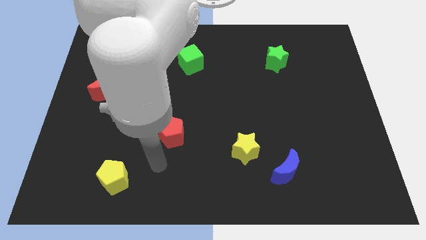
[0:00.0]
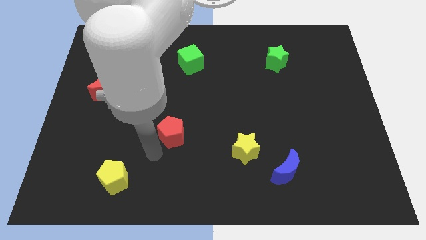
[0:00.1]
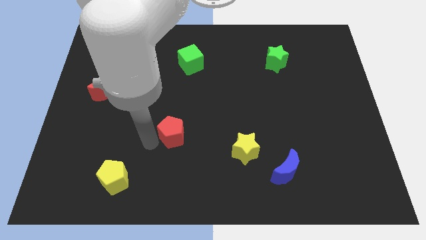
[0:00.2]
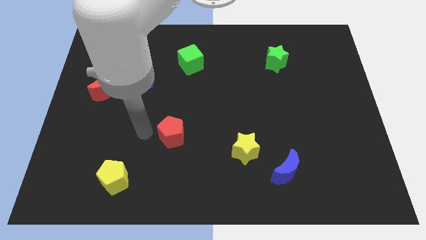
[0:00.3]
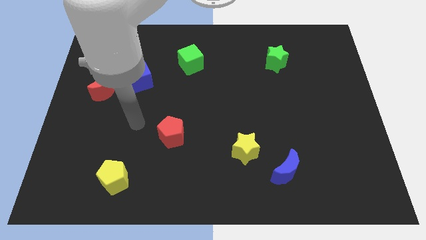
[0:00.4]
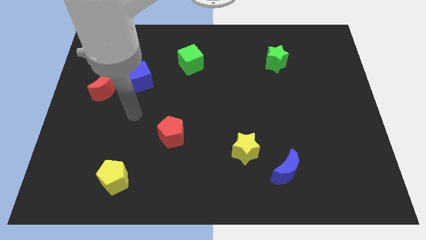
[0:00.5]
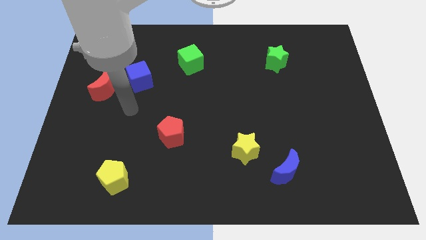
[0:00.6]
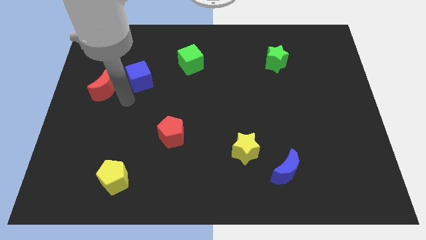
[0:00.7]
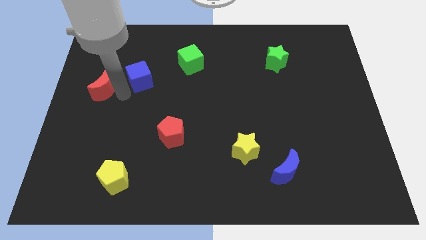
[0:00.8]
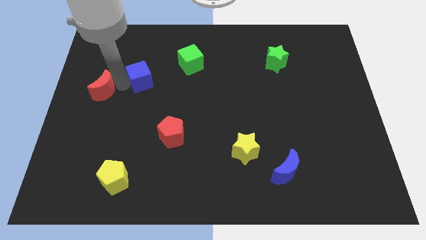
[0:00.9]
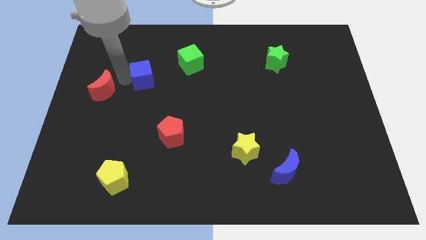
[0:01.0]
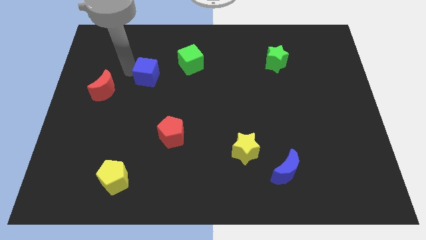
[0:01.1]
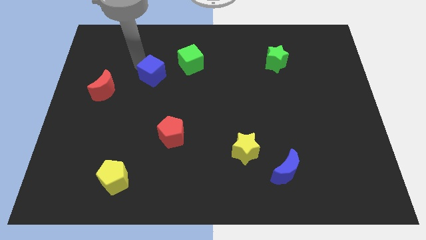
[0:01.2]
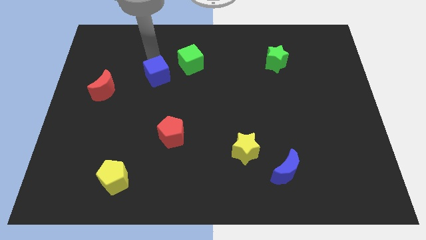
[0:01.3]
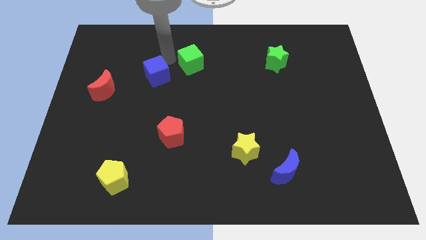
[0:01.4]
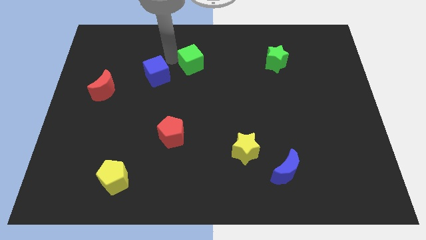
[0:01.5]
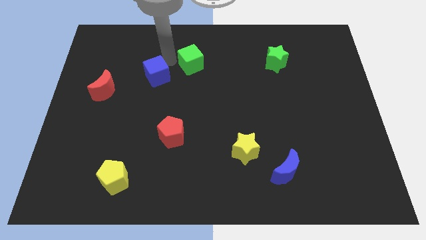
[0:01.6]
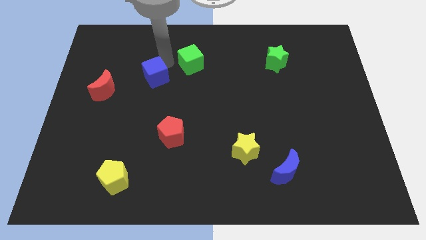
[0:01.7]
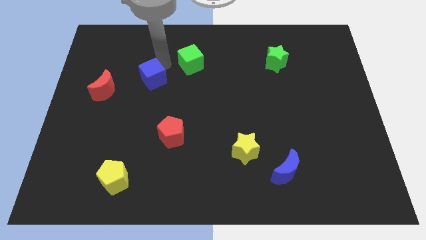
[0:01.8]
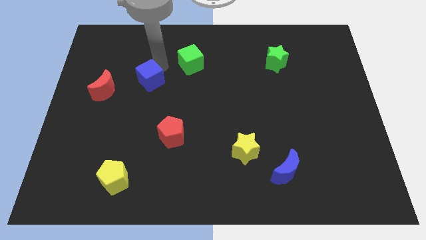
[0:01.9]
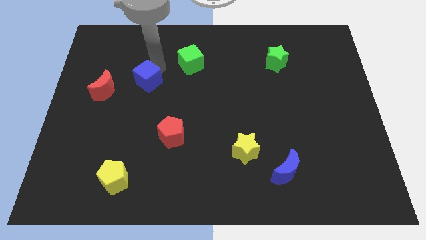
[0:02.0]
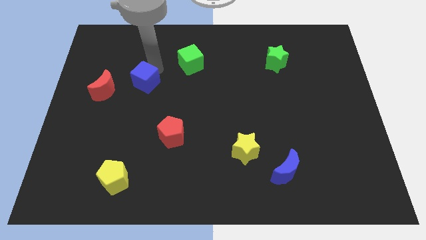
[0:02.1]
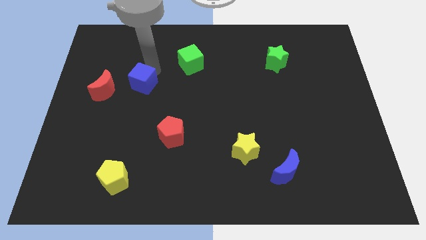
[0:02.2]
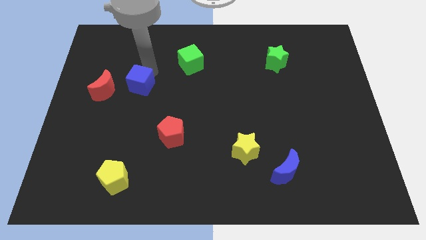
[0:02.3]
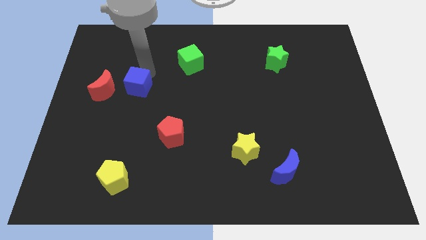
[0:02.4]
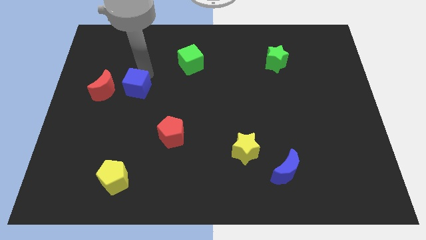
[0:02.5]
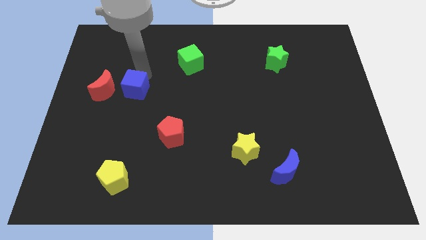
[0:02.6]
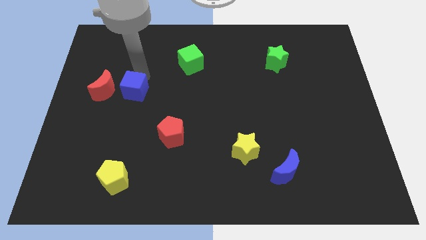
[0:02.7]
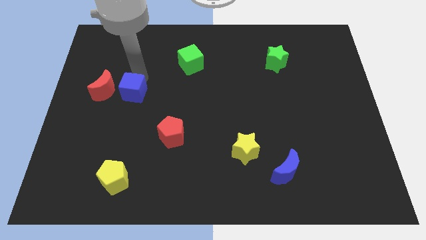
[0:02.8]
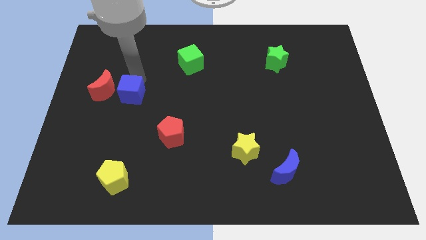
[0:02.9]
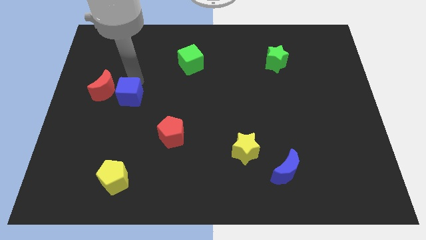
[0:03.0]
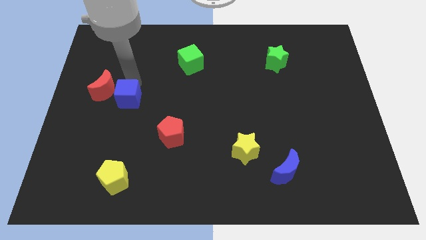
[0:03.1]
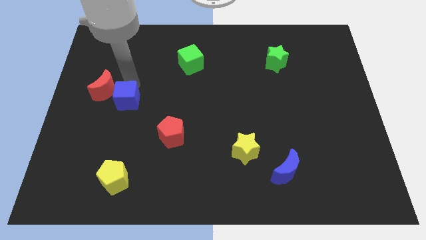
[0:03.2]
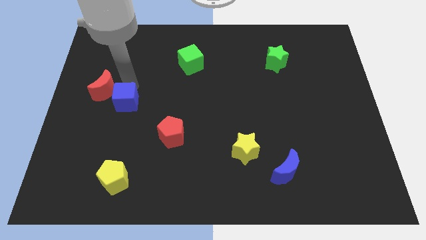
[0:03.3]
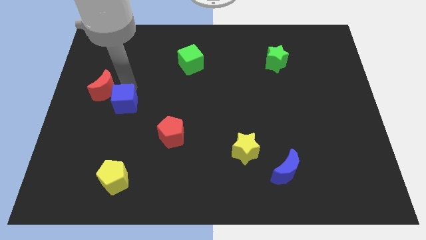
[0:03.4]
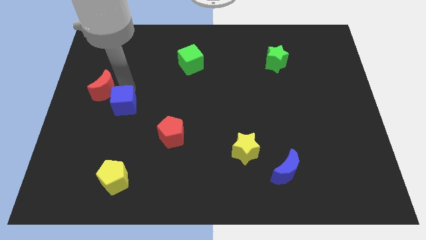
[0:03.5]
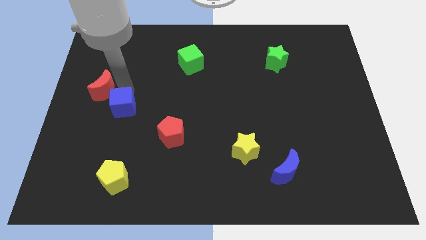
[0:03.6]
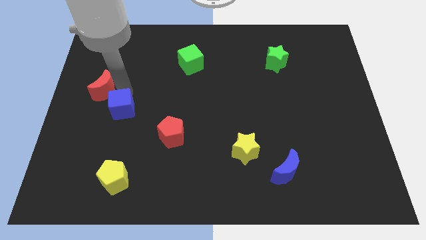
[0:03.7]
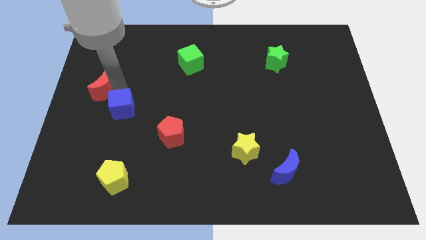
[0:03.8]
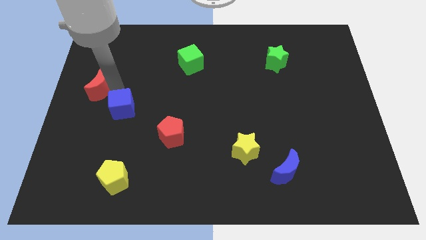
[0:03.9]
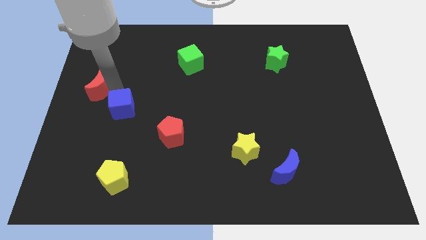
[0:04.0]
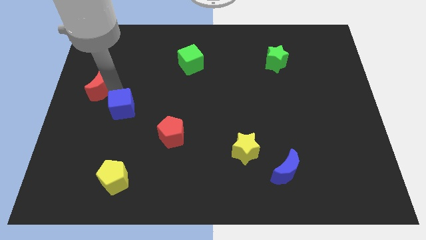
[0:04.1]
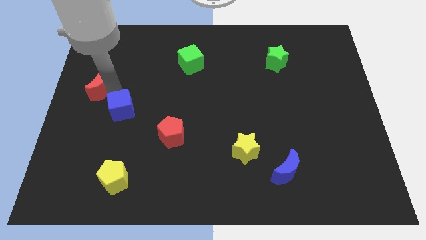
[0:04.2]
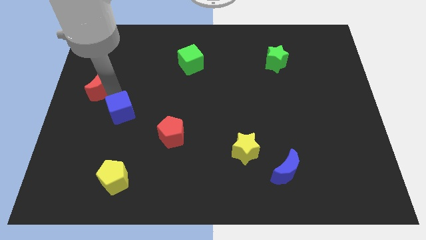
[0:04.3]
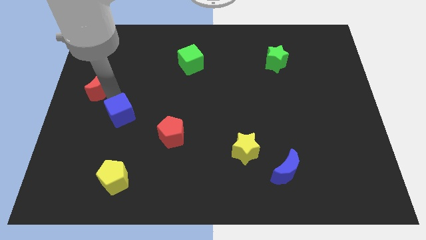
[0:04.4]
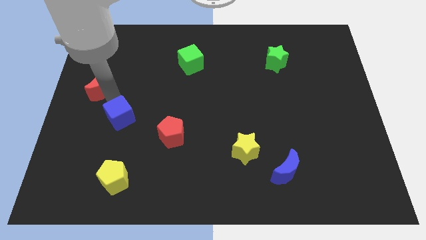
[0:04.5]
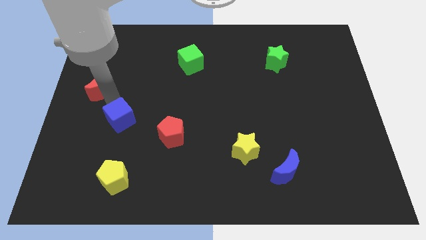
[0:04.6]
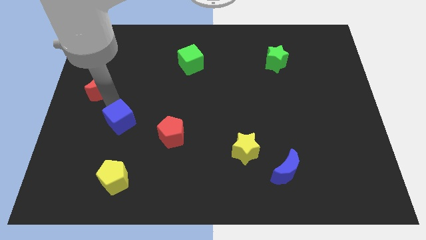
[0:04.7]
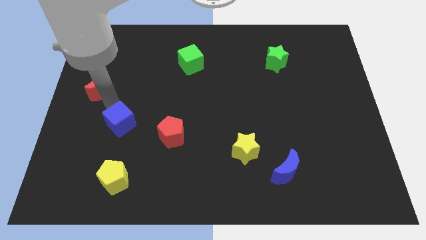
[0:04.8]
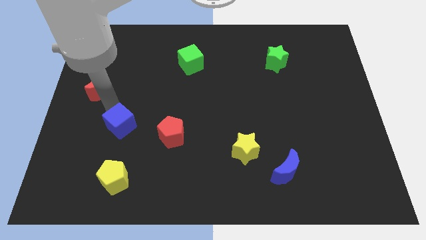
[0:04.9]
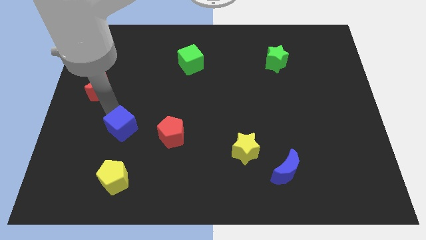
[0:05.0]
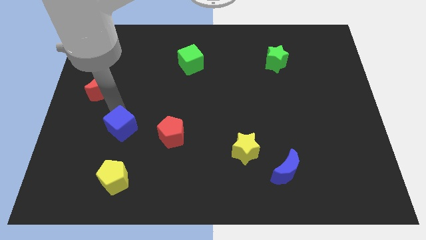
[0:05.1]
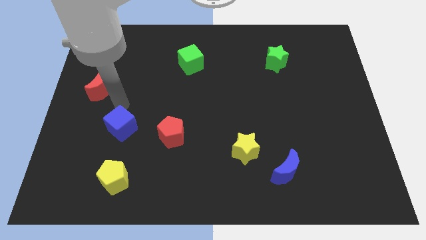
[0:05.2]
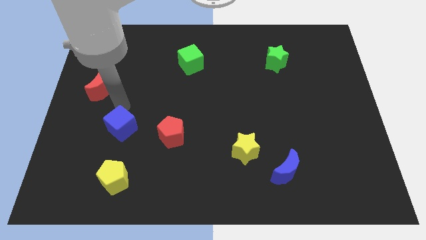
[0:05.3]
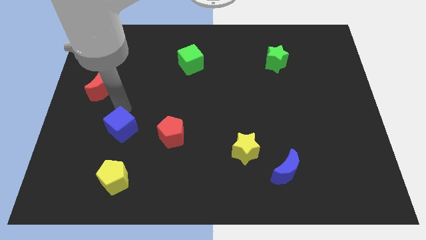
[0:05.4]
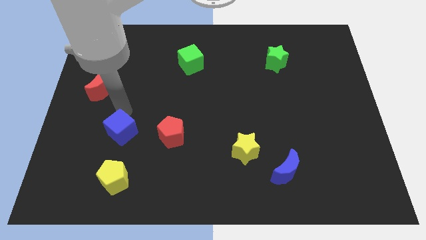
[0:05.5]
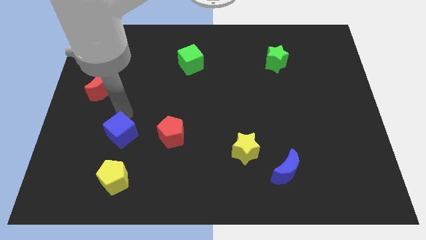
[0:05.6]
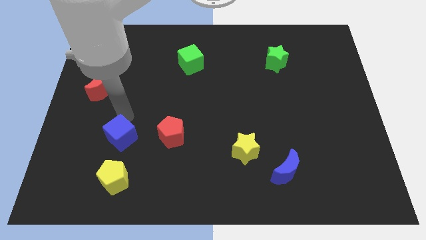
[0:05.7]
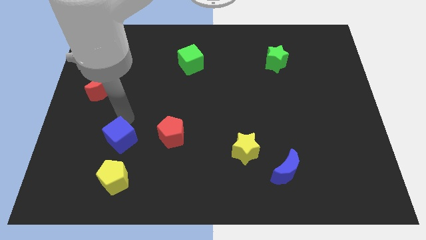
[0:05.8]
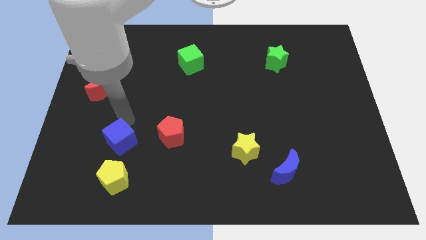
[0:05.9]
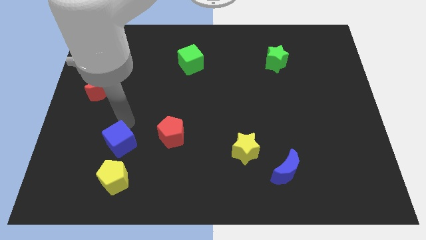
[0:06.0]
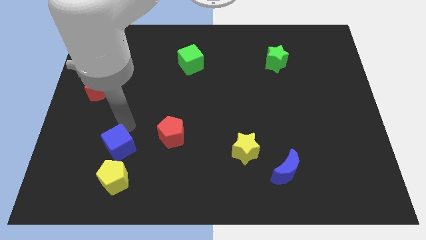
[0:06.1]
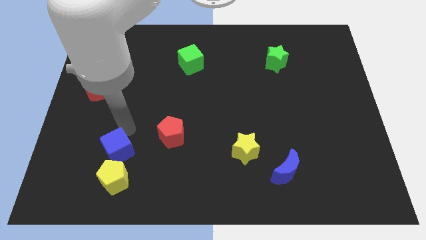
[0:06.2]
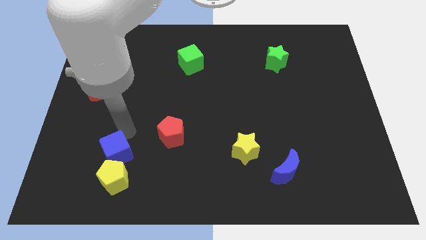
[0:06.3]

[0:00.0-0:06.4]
move the blue cube towards the yellow pentagon

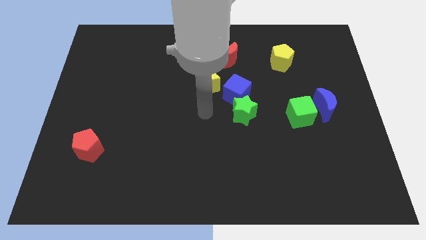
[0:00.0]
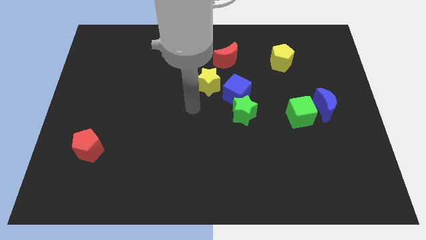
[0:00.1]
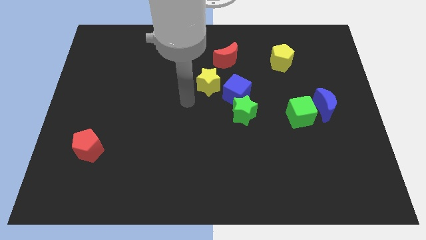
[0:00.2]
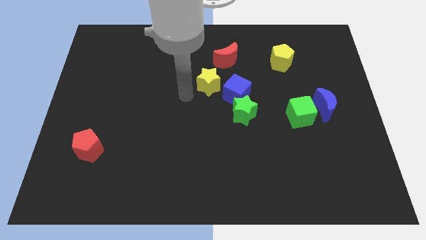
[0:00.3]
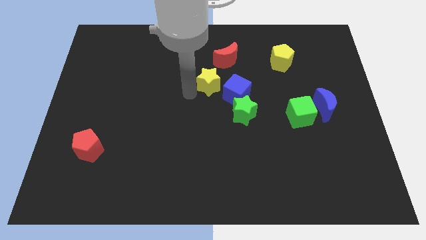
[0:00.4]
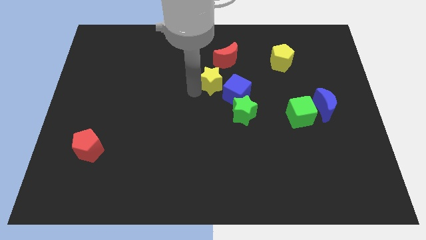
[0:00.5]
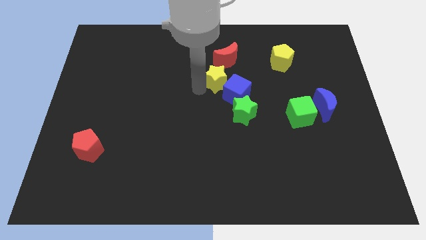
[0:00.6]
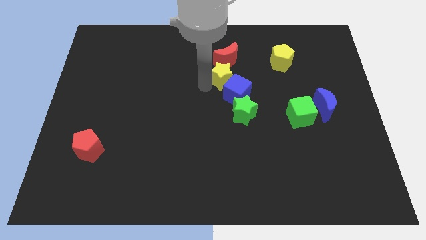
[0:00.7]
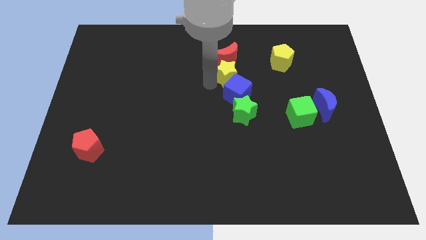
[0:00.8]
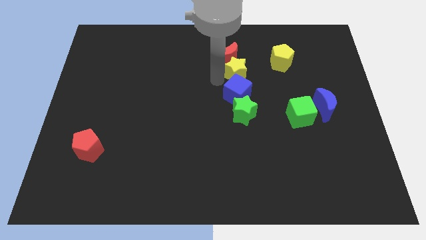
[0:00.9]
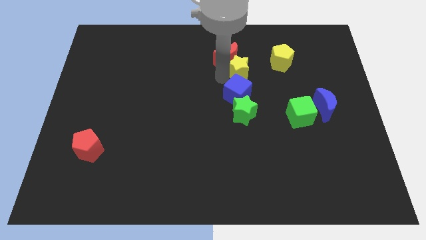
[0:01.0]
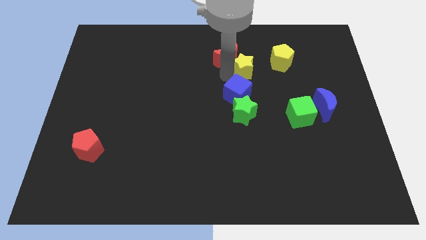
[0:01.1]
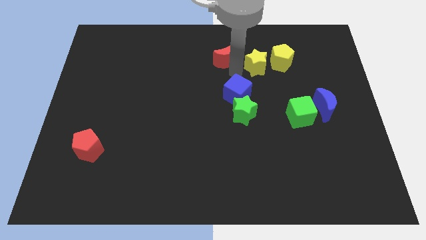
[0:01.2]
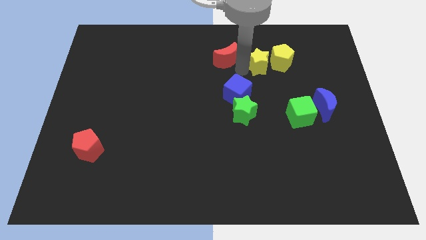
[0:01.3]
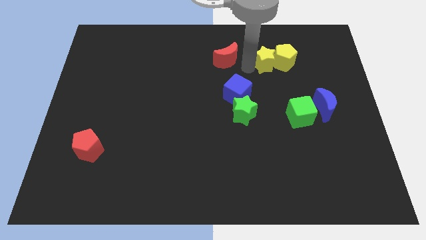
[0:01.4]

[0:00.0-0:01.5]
push the yellow star towards the yellow pentagon
